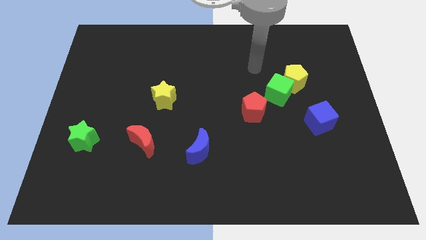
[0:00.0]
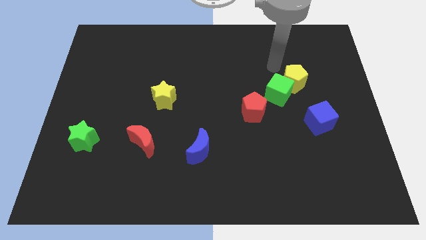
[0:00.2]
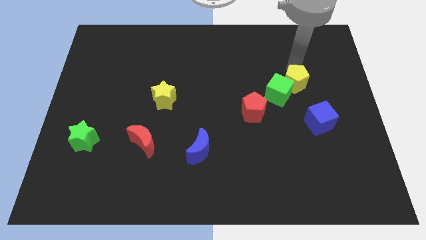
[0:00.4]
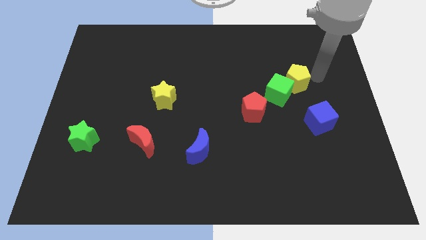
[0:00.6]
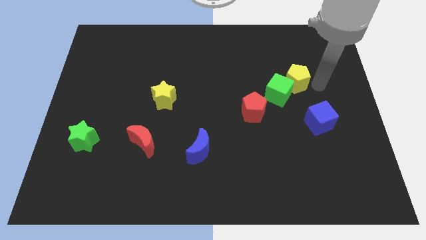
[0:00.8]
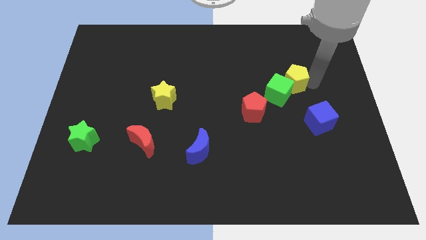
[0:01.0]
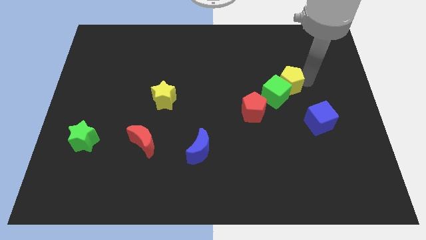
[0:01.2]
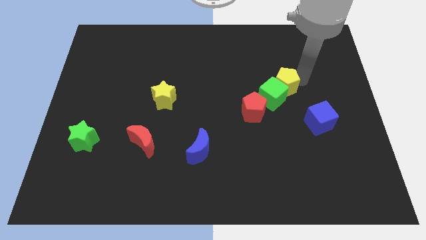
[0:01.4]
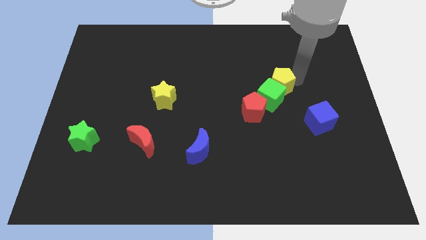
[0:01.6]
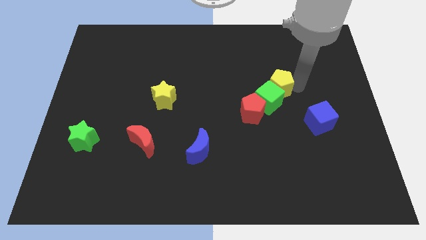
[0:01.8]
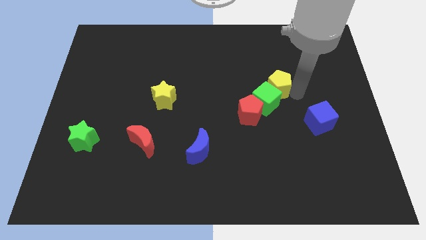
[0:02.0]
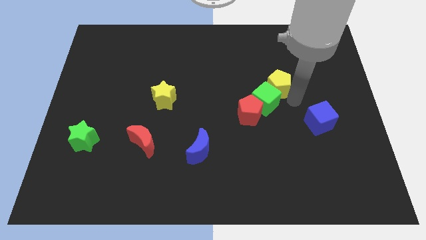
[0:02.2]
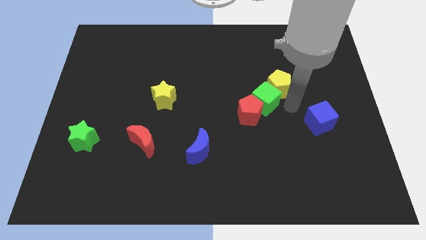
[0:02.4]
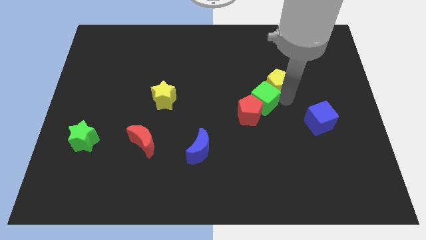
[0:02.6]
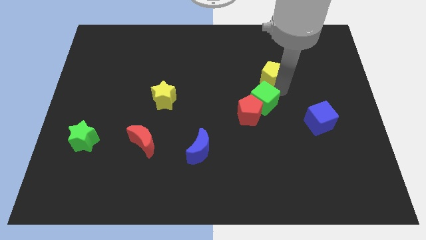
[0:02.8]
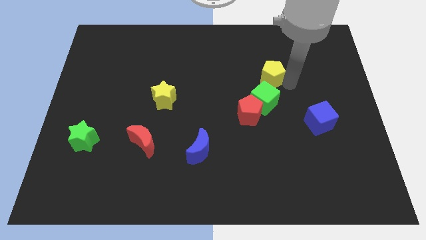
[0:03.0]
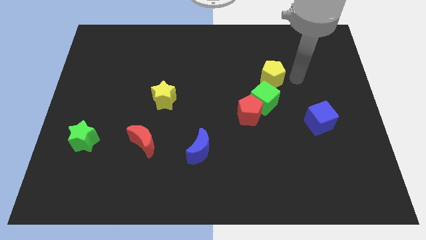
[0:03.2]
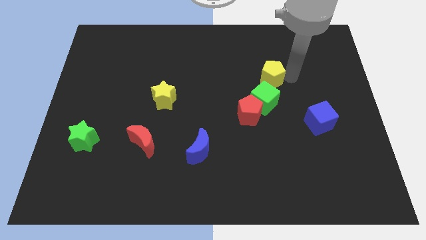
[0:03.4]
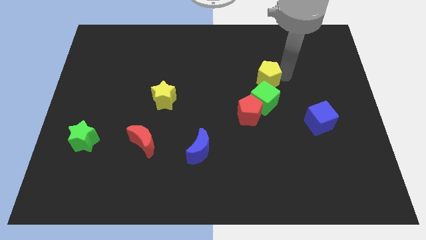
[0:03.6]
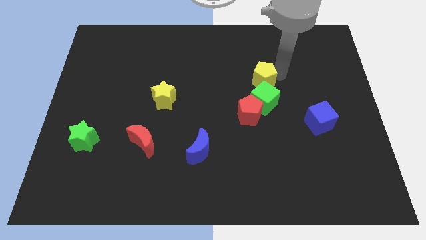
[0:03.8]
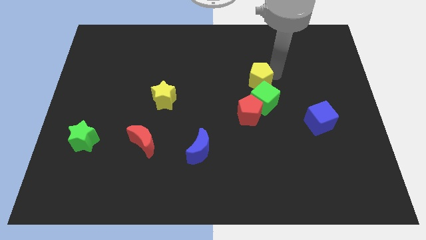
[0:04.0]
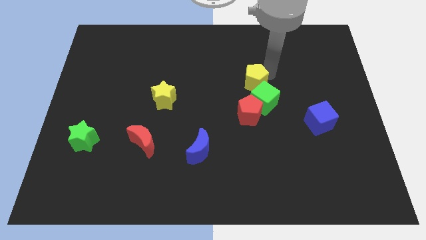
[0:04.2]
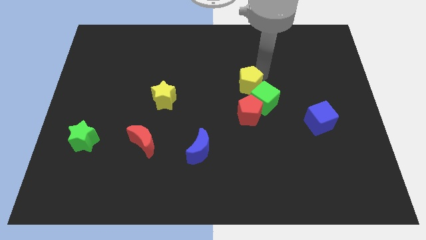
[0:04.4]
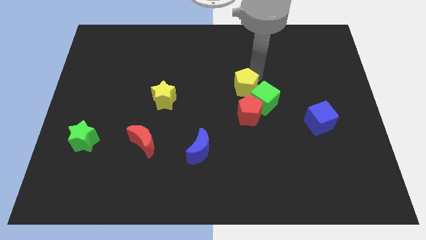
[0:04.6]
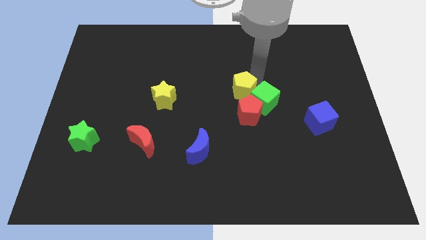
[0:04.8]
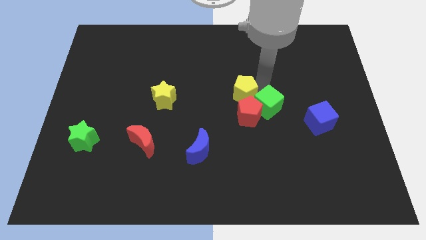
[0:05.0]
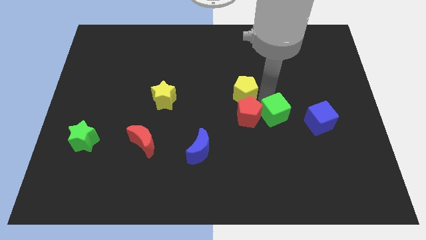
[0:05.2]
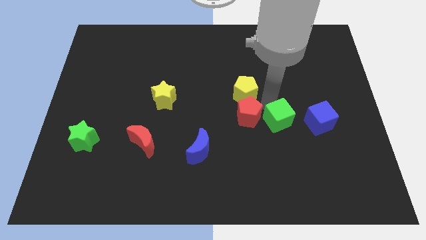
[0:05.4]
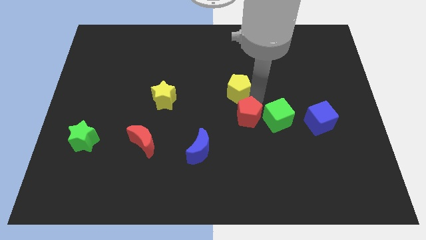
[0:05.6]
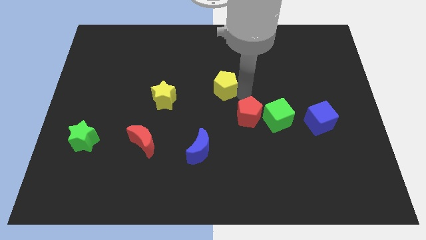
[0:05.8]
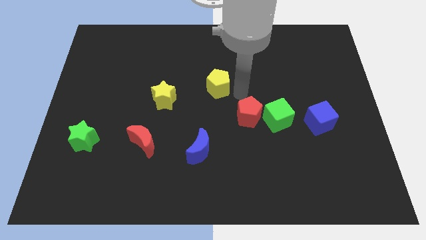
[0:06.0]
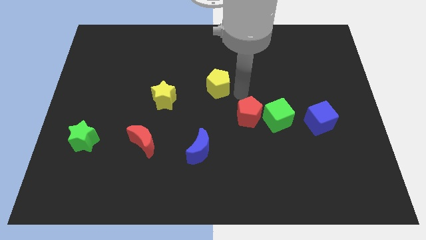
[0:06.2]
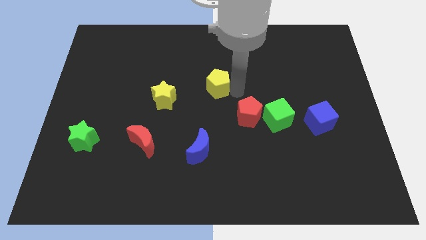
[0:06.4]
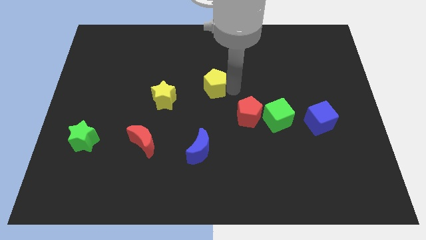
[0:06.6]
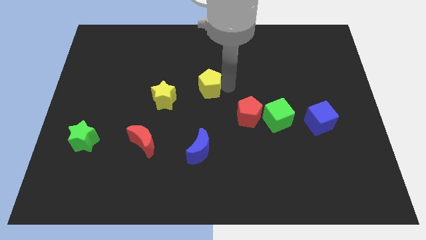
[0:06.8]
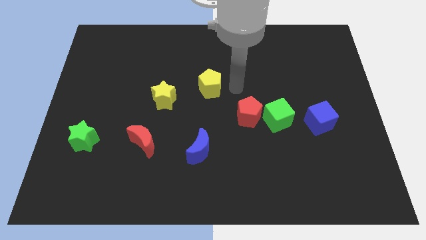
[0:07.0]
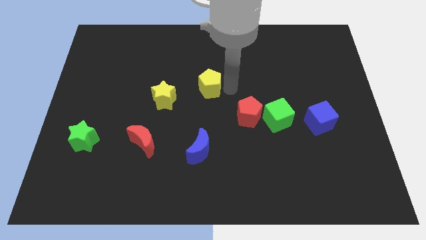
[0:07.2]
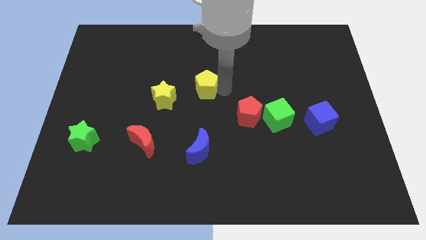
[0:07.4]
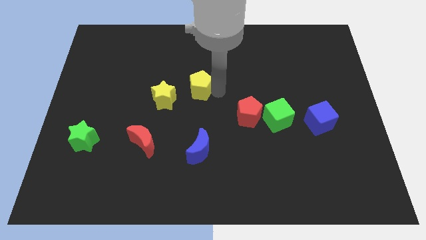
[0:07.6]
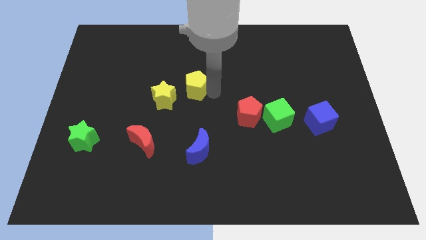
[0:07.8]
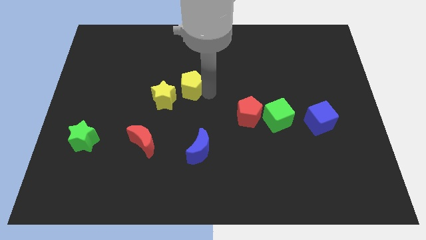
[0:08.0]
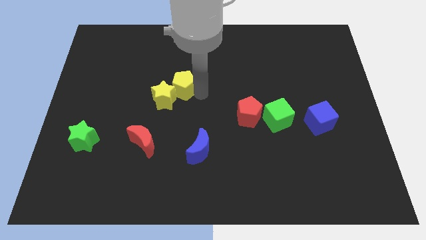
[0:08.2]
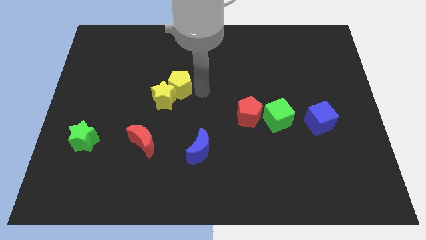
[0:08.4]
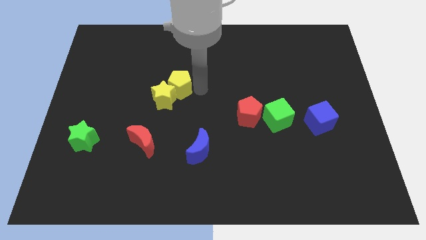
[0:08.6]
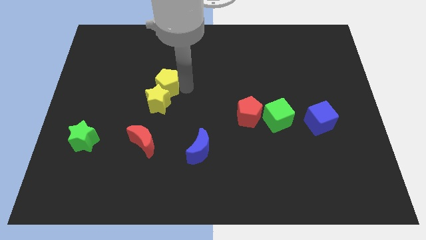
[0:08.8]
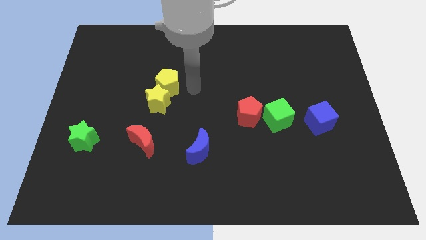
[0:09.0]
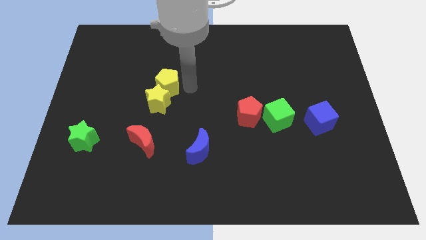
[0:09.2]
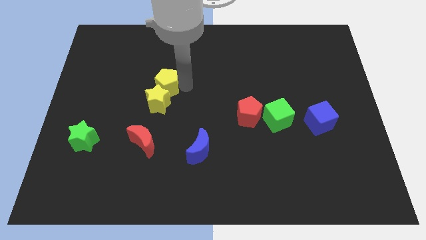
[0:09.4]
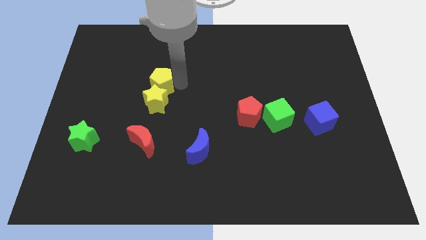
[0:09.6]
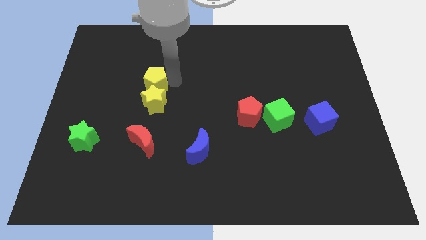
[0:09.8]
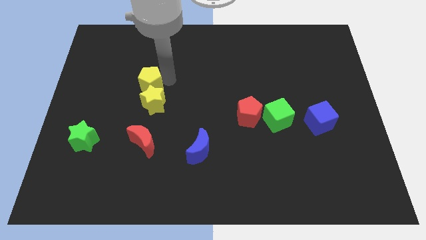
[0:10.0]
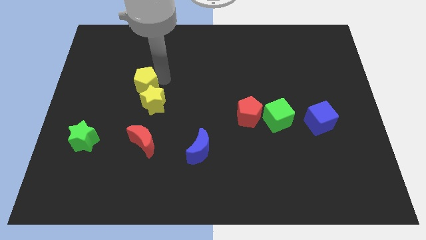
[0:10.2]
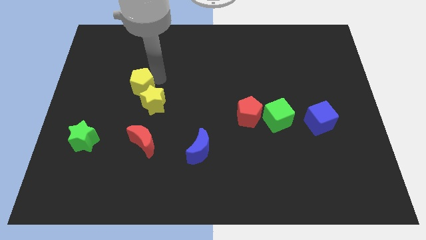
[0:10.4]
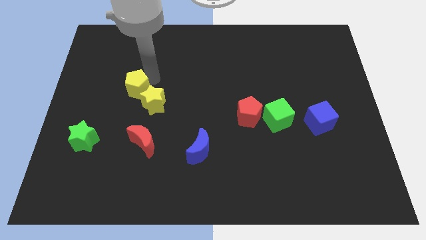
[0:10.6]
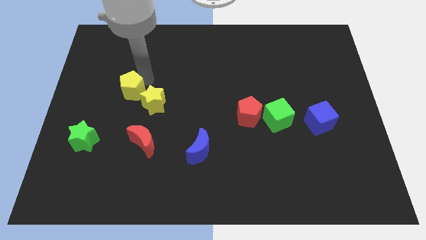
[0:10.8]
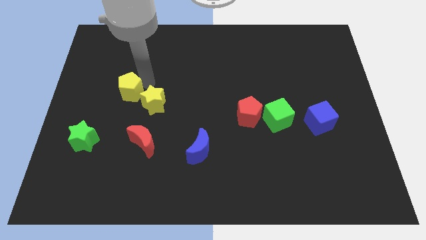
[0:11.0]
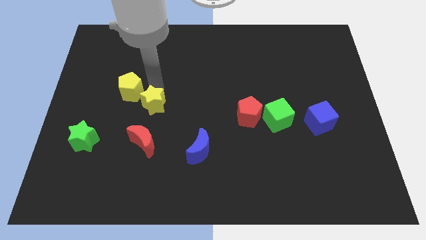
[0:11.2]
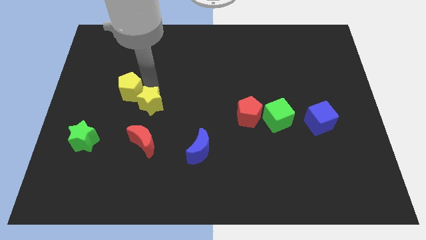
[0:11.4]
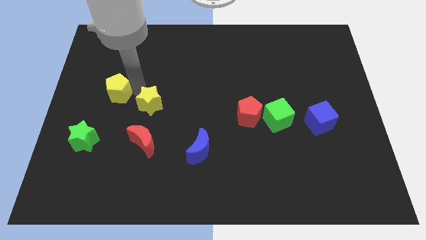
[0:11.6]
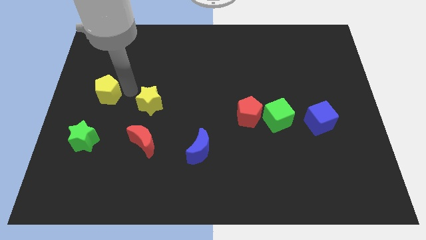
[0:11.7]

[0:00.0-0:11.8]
push the yellow pentagon to the left side

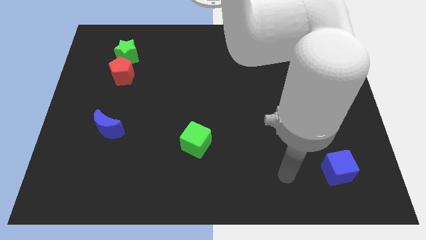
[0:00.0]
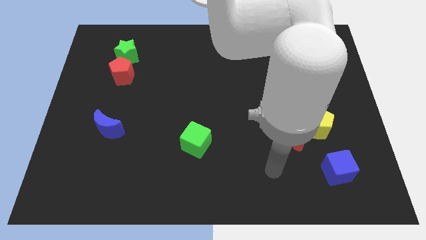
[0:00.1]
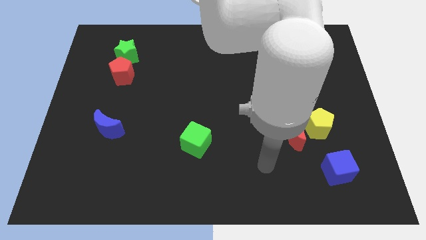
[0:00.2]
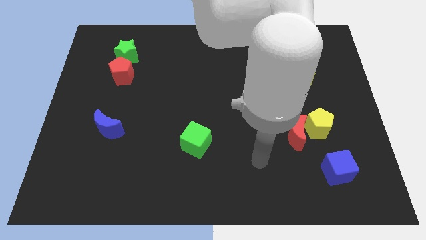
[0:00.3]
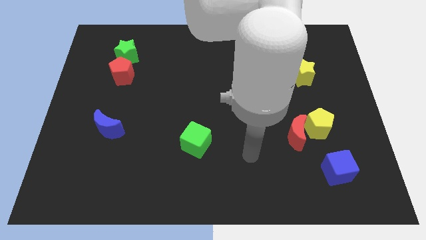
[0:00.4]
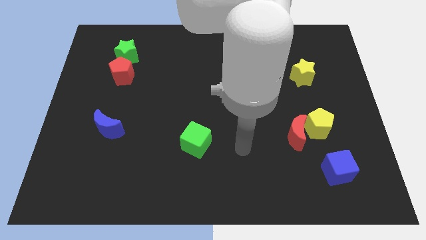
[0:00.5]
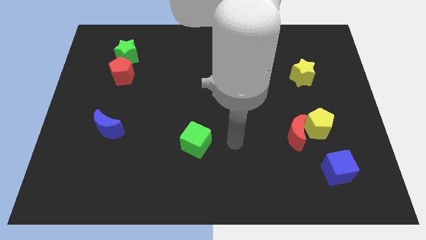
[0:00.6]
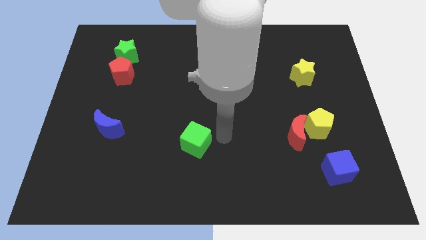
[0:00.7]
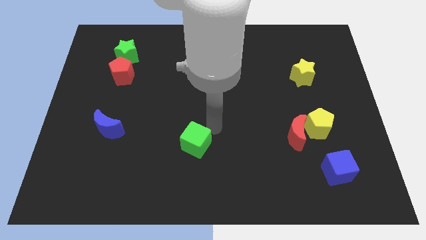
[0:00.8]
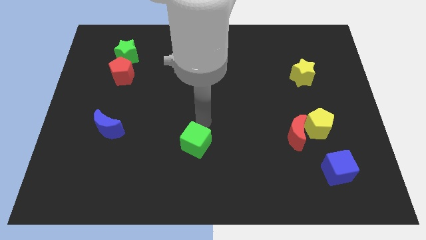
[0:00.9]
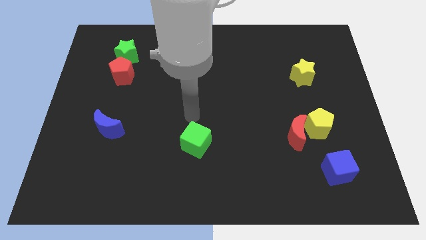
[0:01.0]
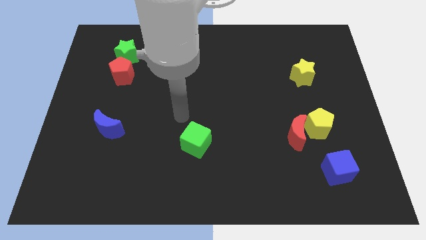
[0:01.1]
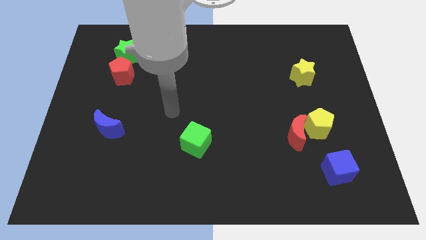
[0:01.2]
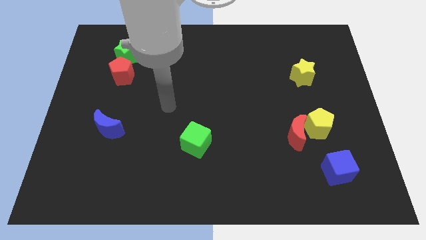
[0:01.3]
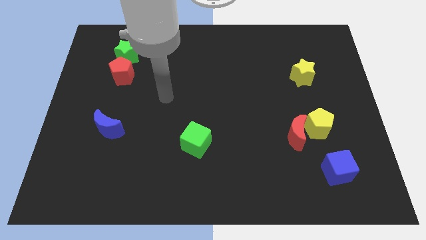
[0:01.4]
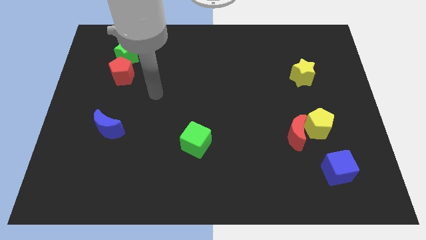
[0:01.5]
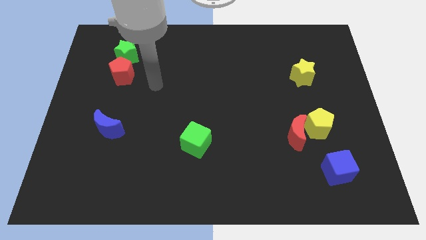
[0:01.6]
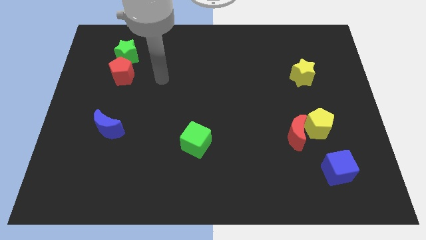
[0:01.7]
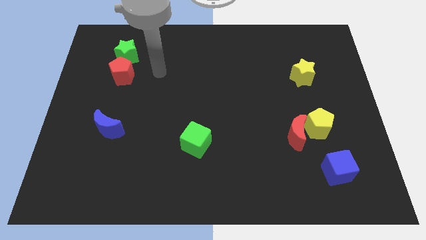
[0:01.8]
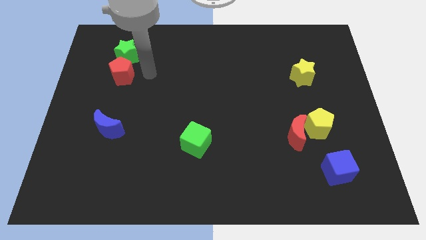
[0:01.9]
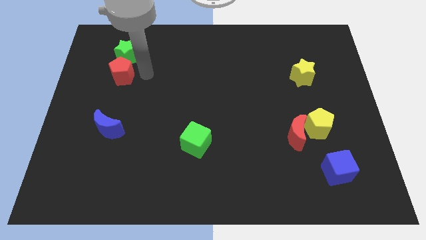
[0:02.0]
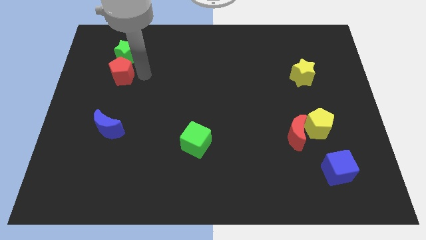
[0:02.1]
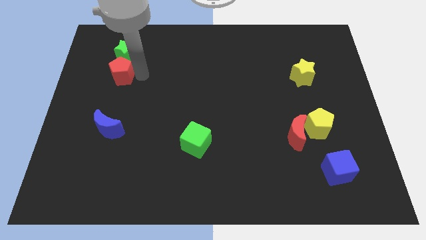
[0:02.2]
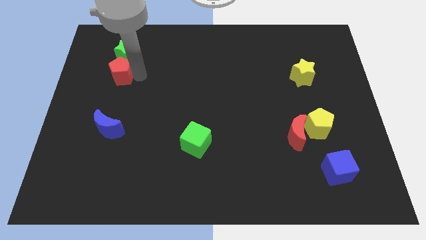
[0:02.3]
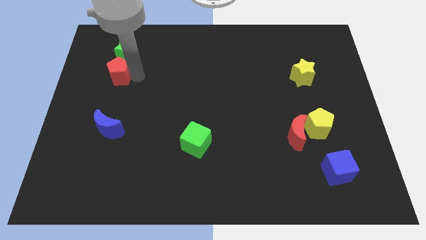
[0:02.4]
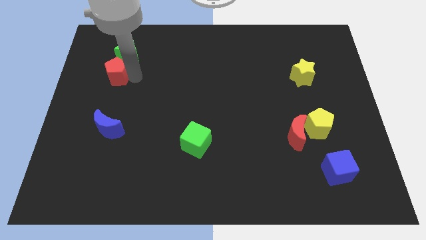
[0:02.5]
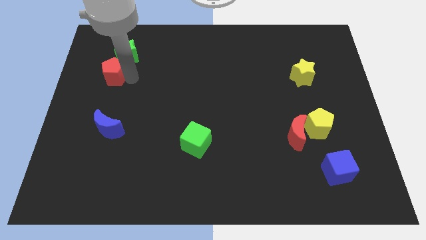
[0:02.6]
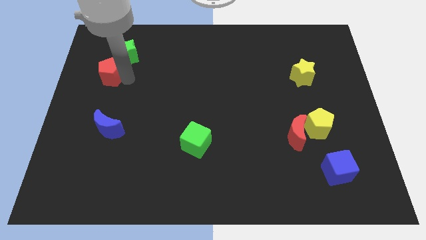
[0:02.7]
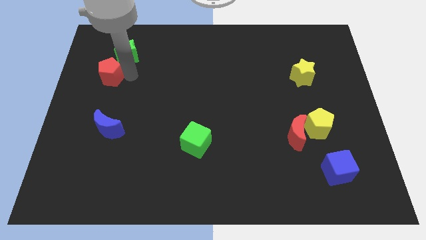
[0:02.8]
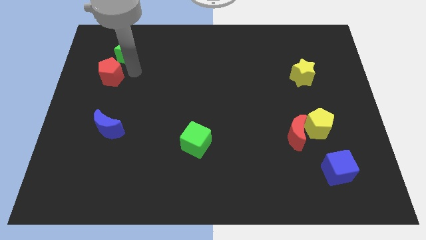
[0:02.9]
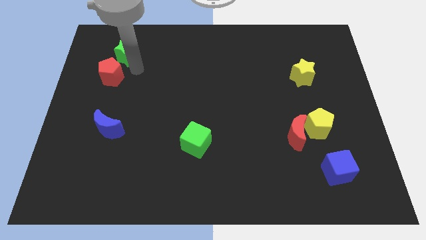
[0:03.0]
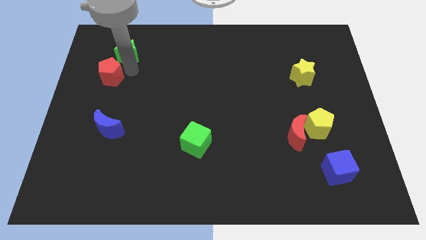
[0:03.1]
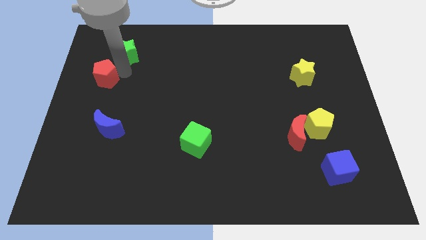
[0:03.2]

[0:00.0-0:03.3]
put the red pentagon to the left side
